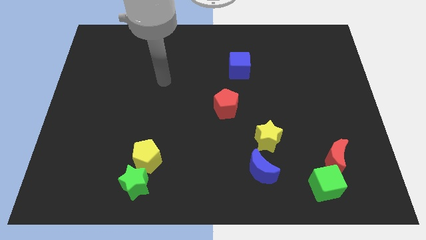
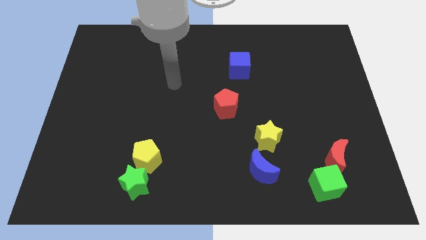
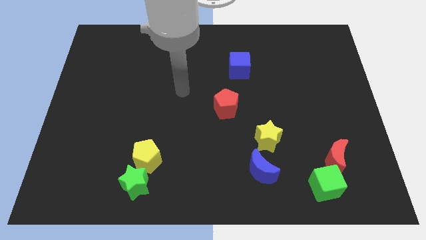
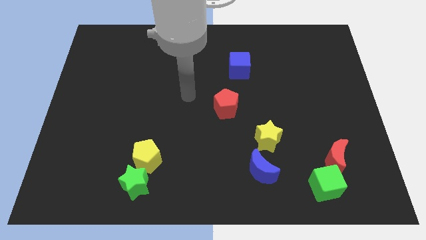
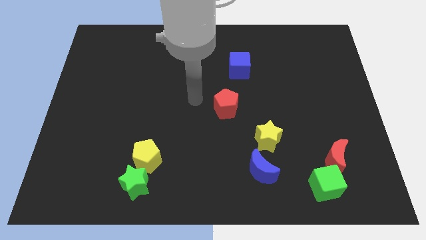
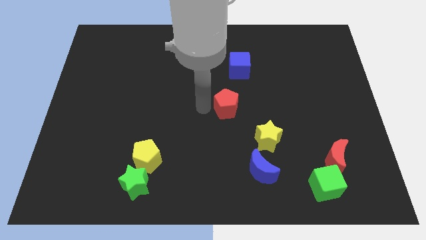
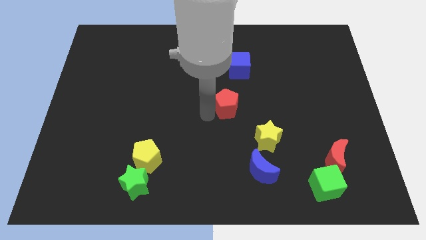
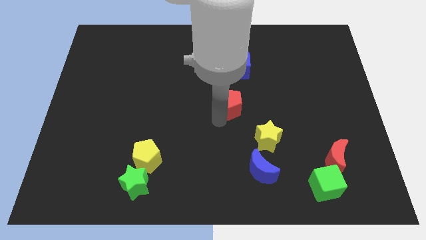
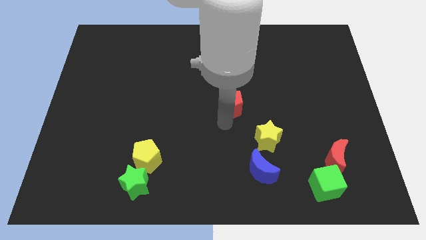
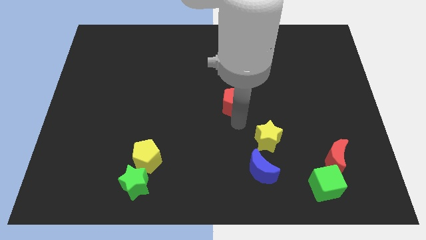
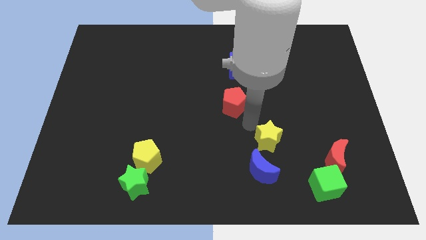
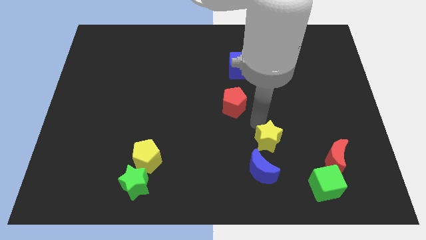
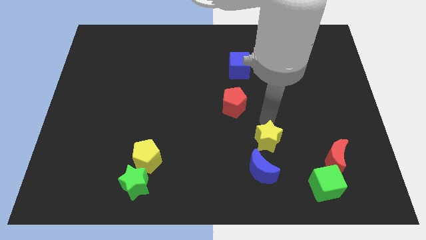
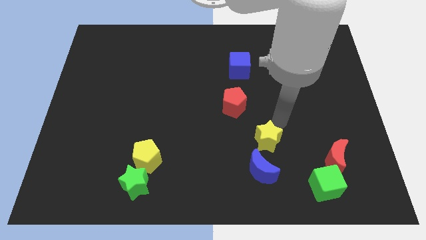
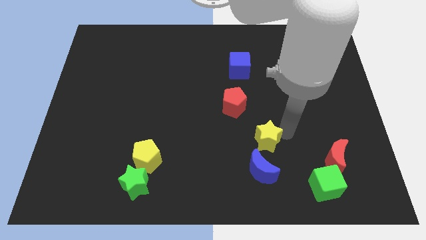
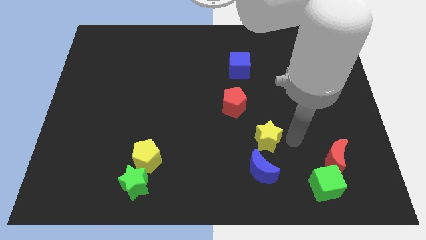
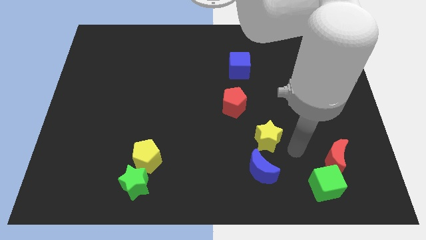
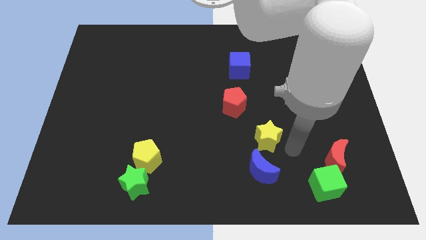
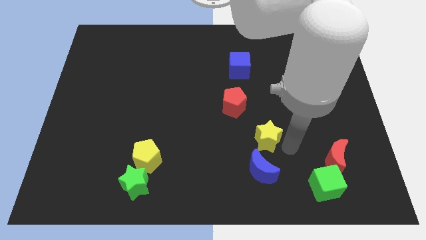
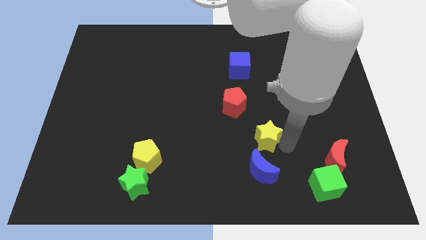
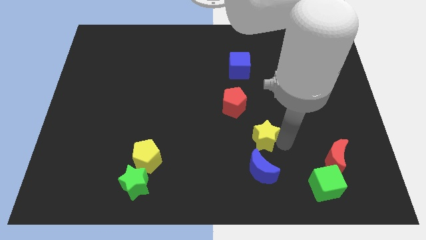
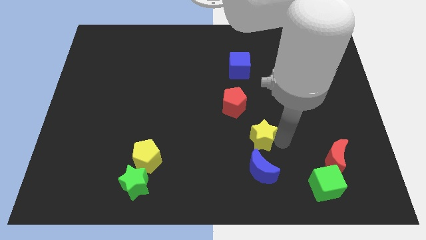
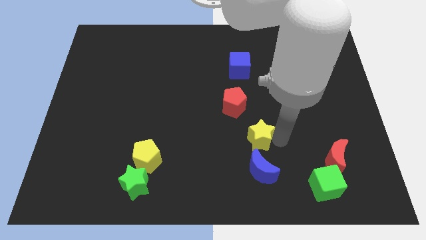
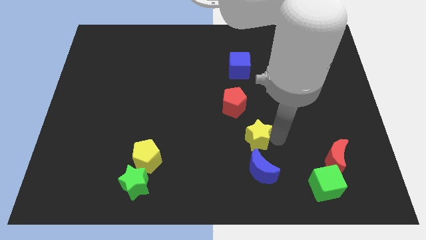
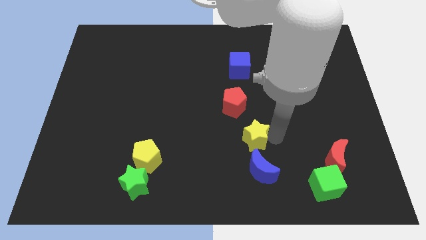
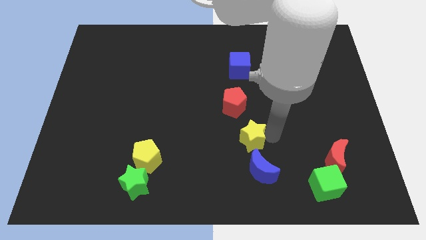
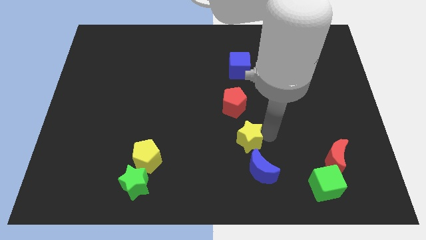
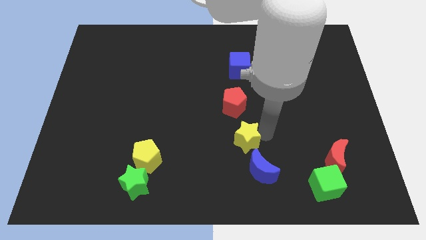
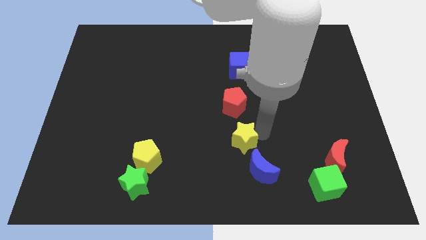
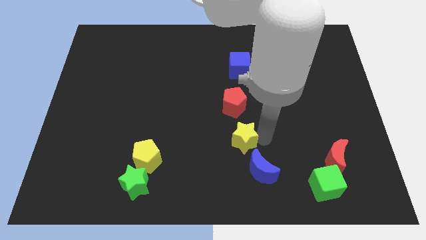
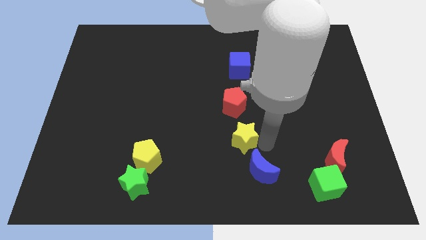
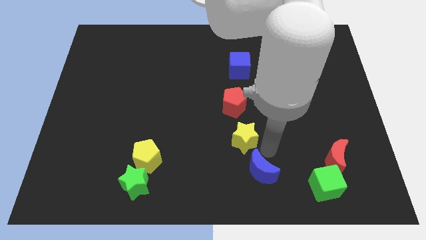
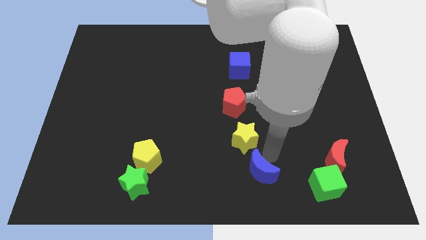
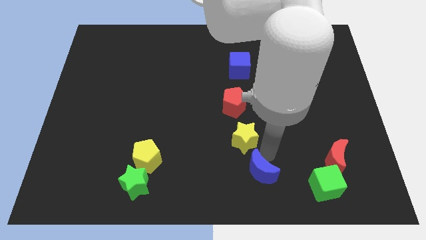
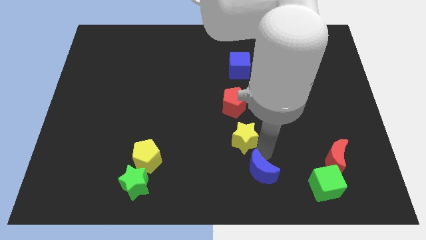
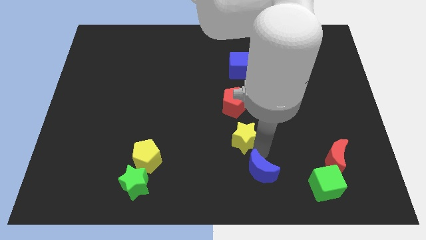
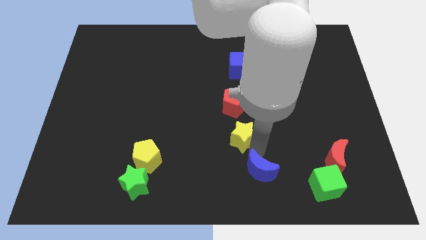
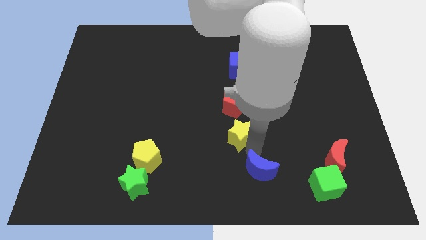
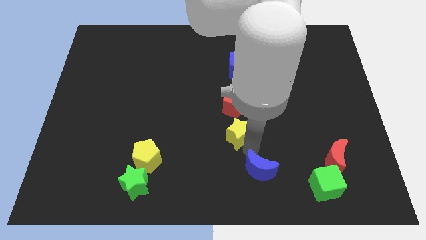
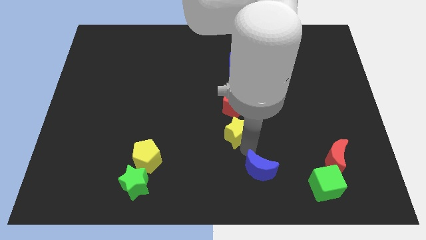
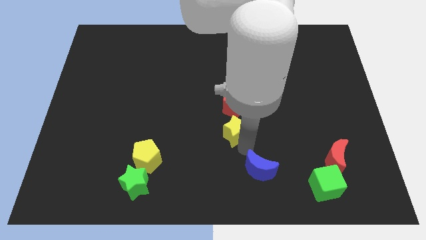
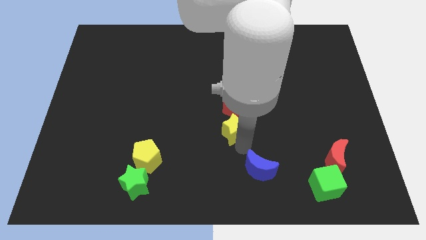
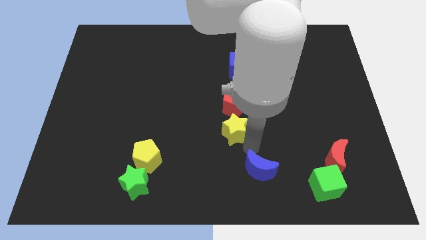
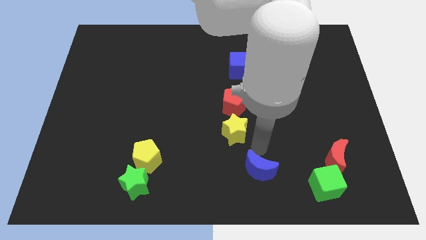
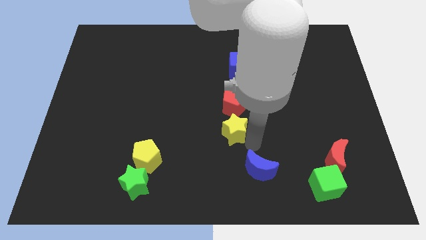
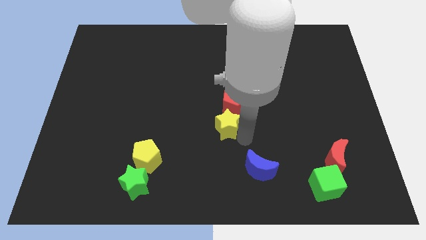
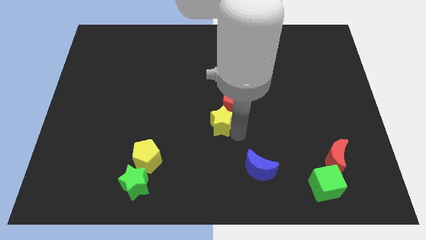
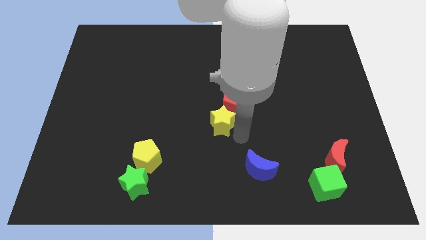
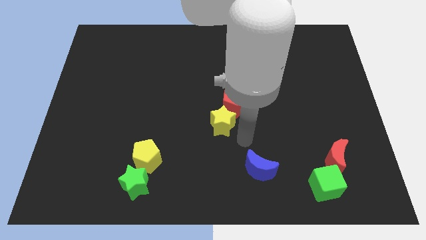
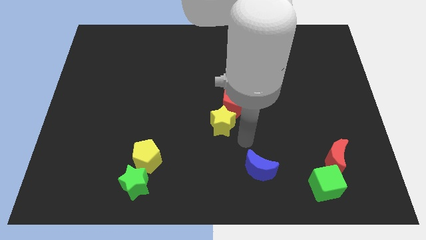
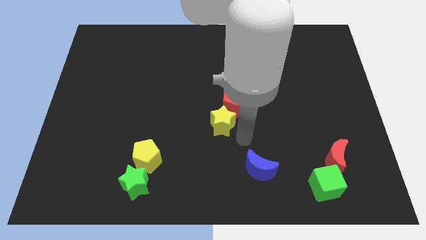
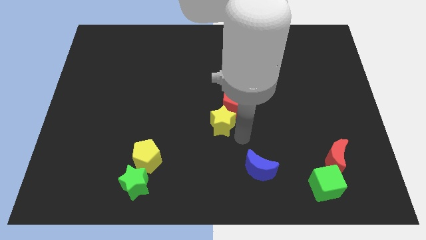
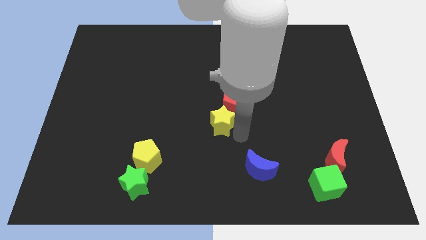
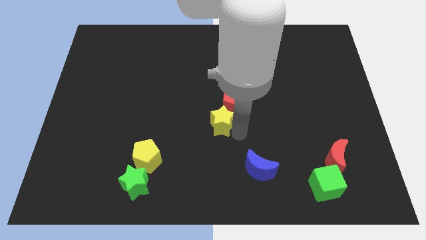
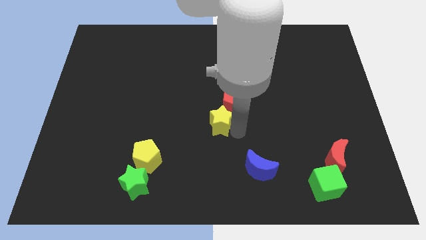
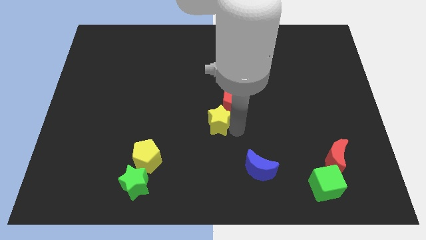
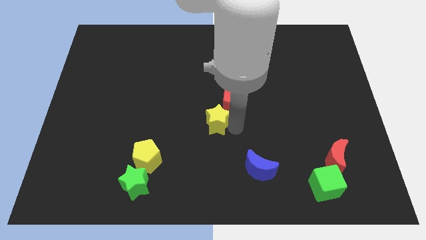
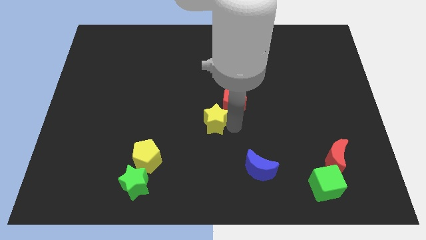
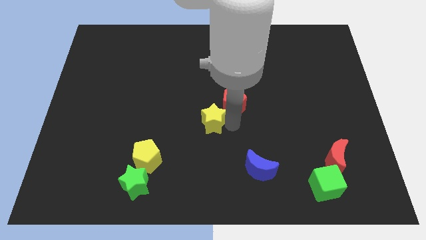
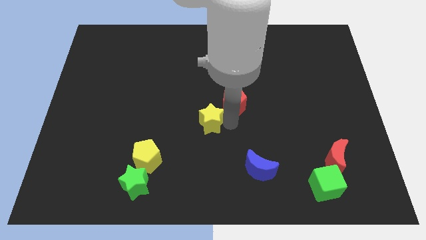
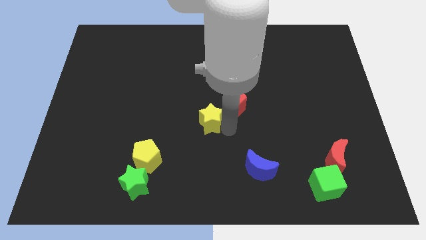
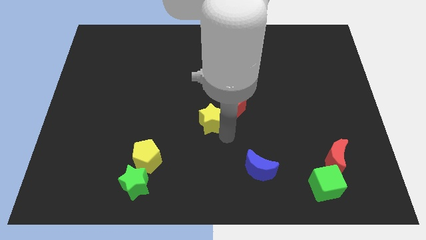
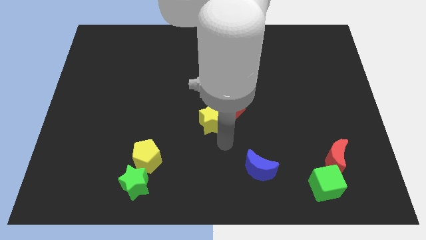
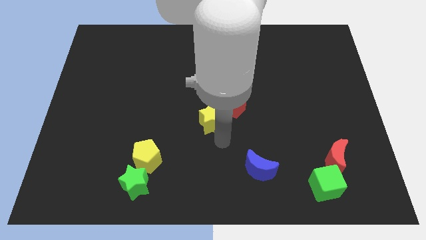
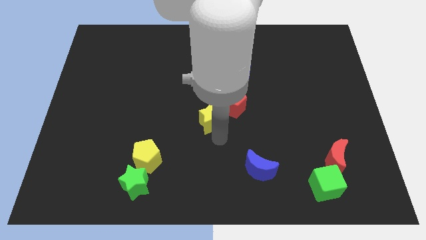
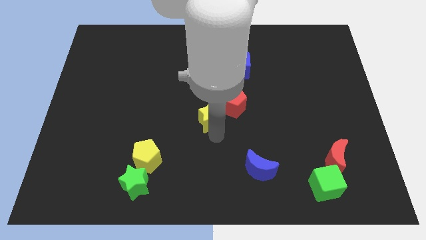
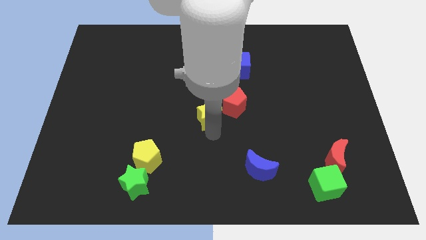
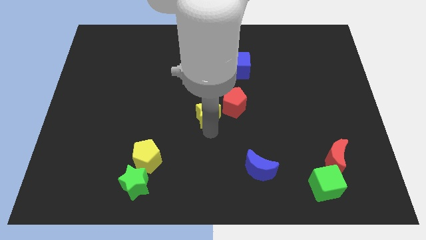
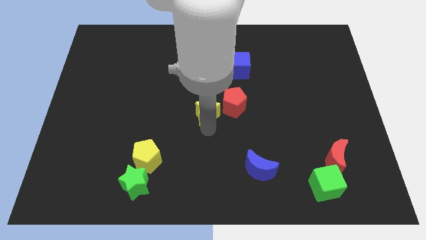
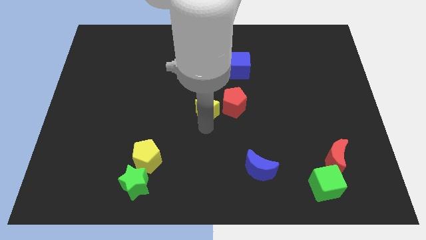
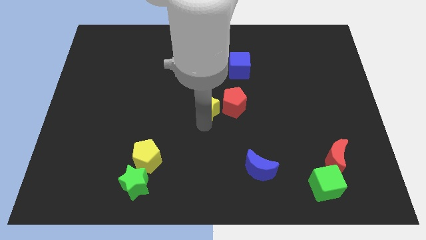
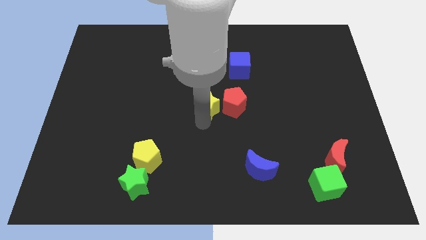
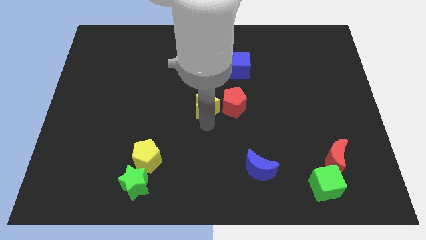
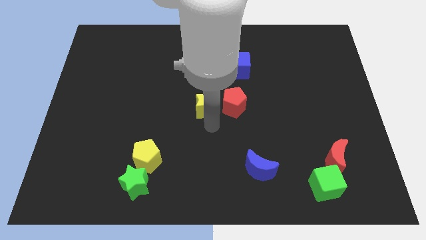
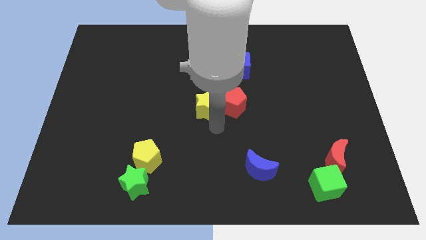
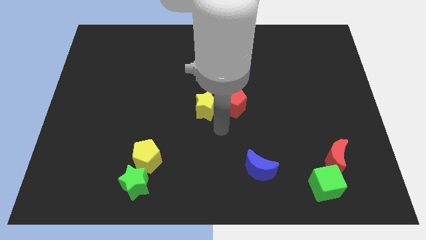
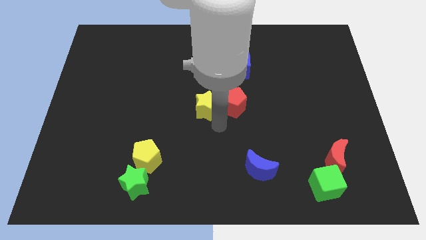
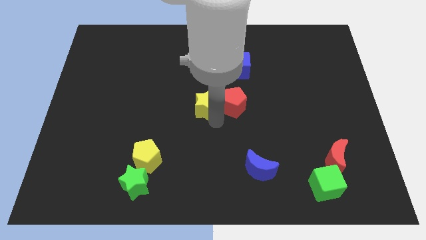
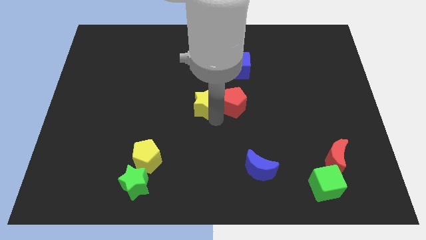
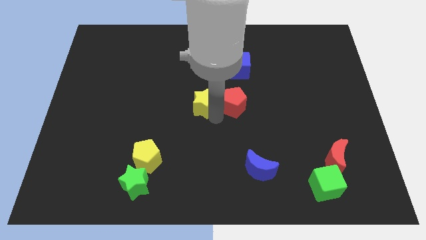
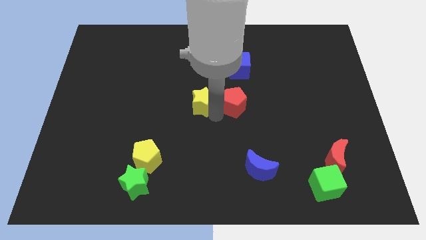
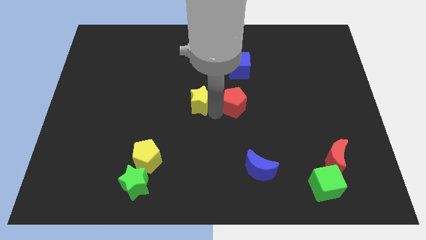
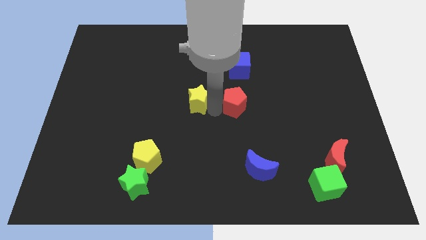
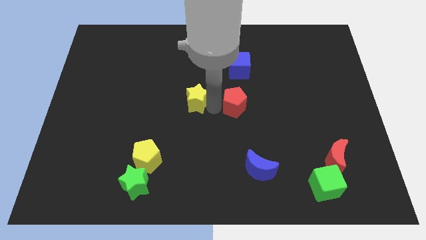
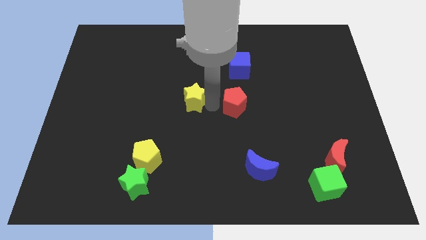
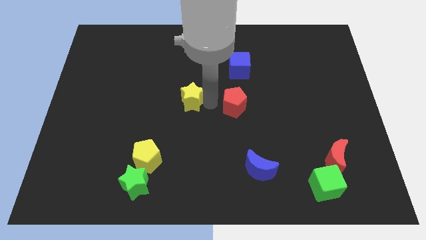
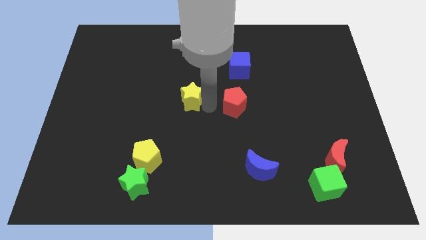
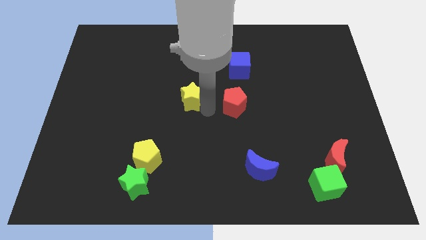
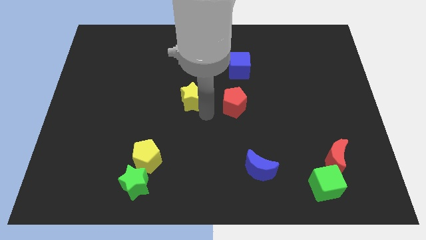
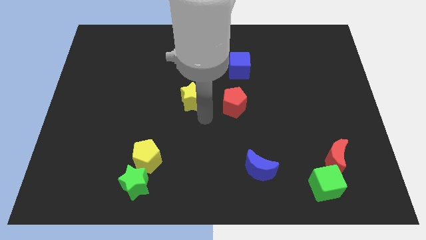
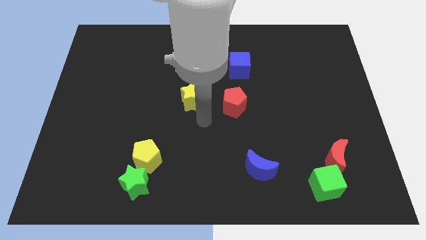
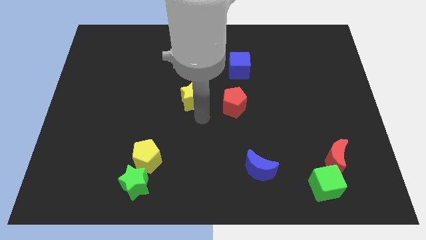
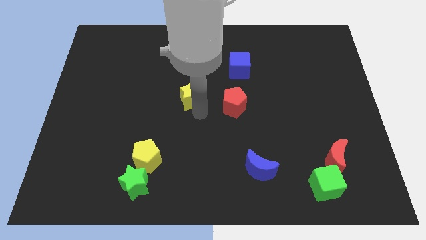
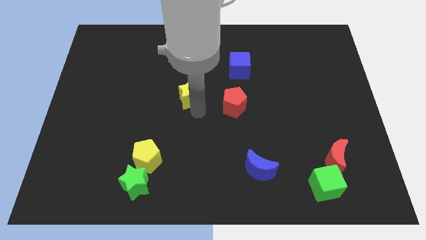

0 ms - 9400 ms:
push the yellow star up and then left
